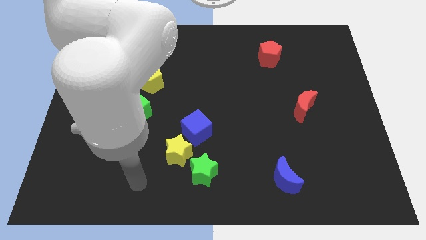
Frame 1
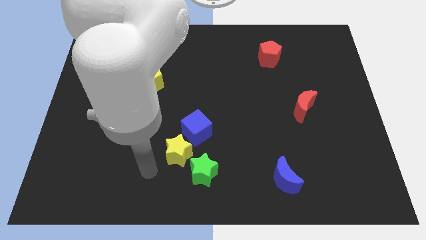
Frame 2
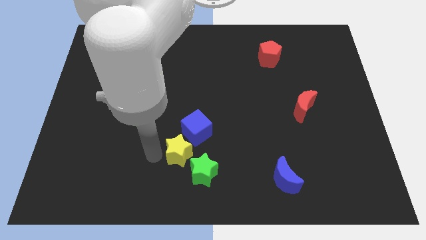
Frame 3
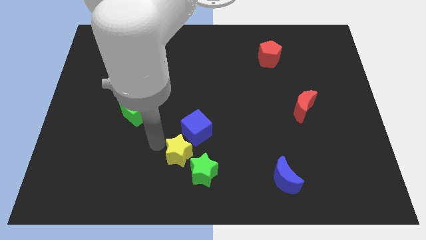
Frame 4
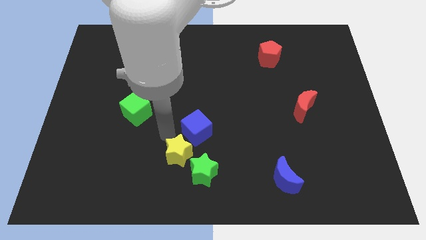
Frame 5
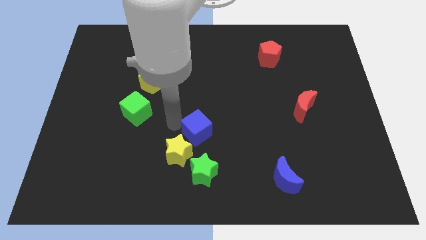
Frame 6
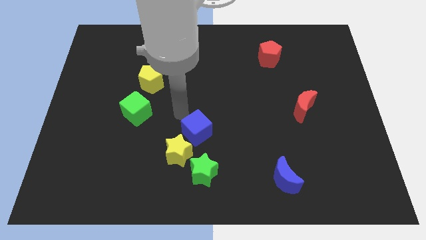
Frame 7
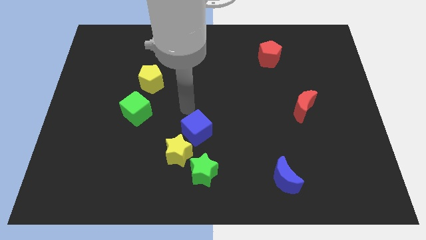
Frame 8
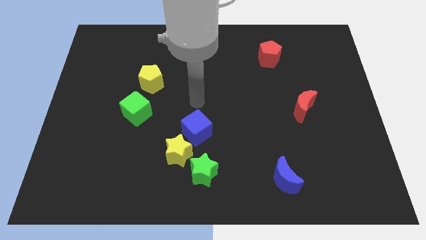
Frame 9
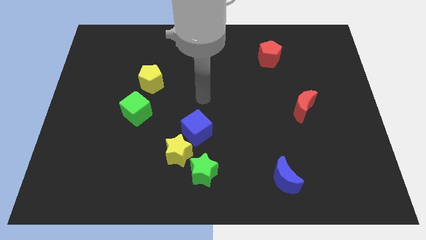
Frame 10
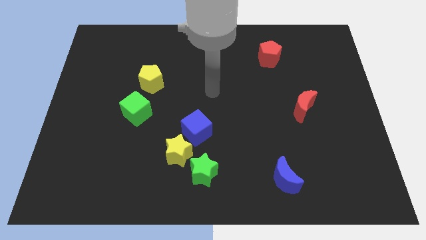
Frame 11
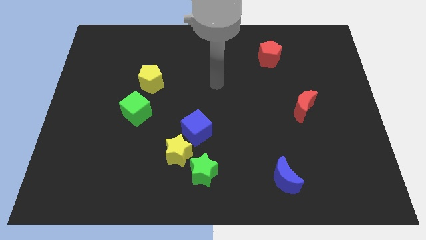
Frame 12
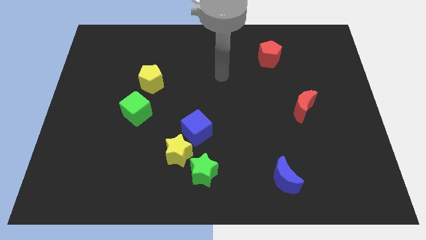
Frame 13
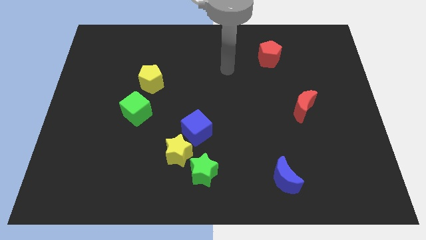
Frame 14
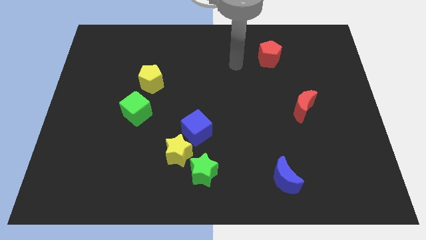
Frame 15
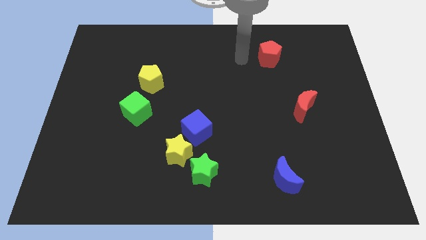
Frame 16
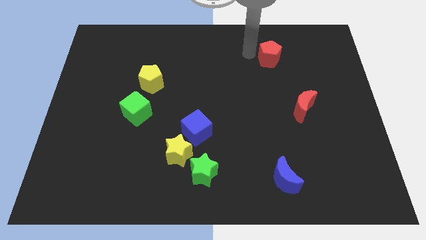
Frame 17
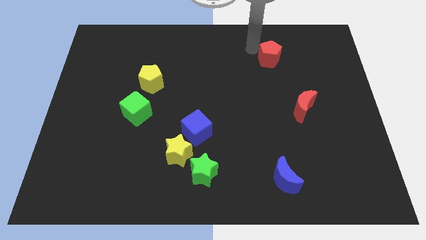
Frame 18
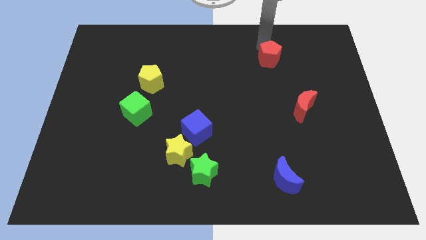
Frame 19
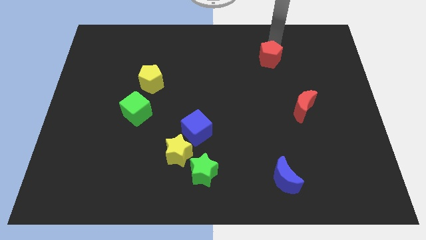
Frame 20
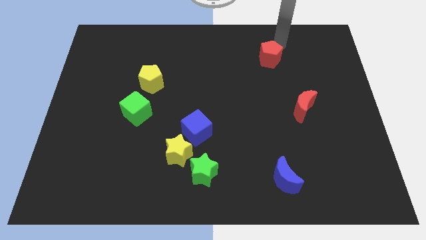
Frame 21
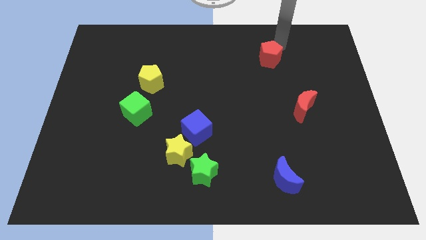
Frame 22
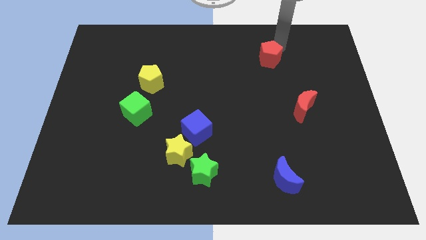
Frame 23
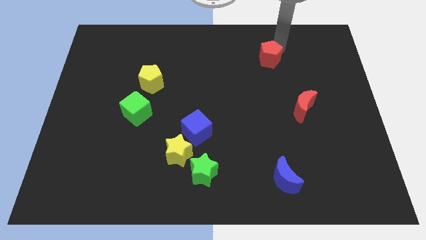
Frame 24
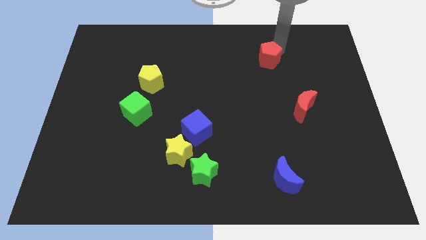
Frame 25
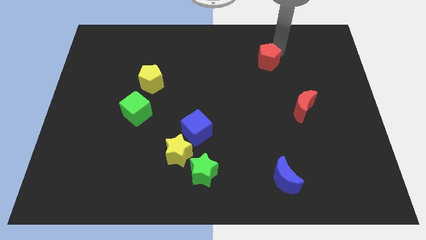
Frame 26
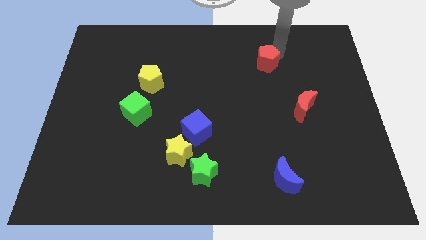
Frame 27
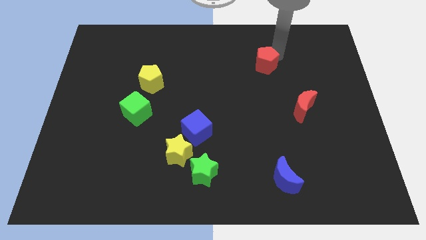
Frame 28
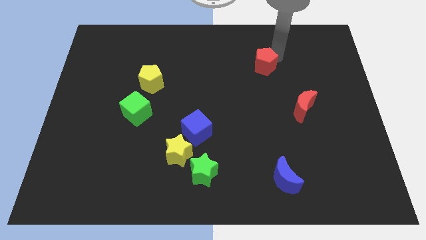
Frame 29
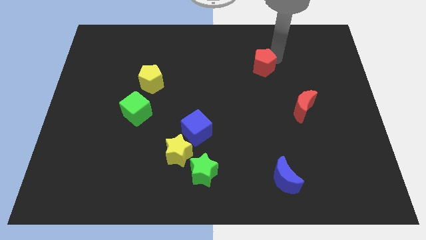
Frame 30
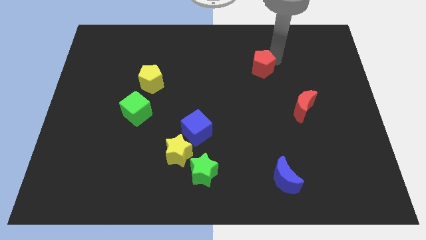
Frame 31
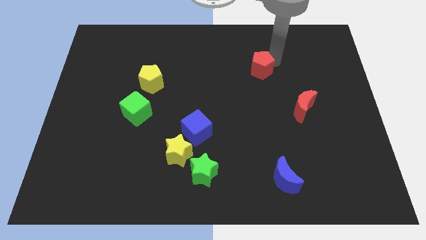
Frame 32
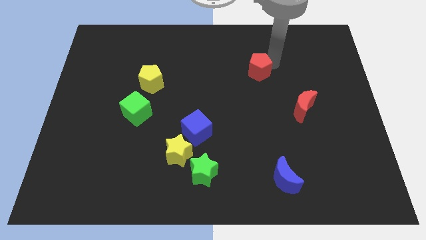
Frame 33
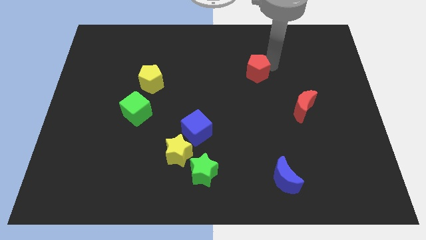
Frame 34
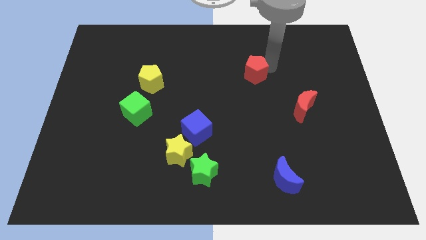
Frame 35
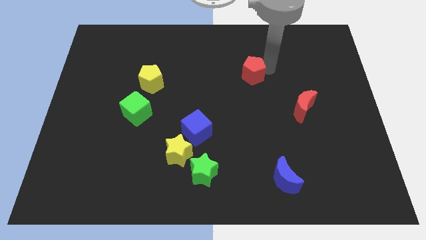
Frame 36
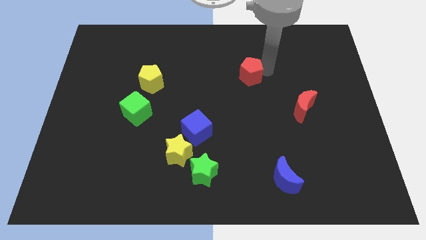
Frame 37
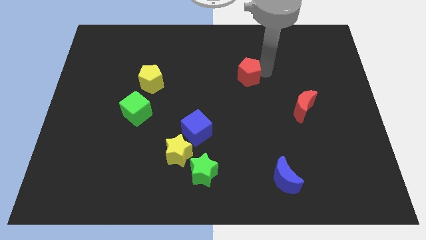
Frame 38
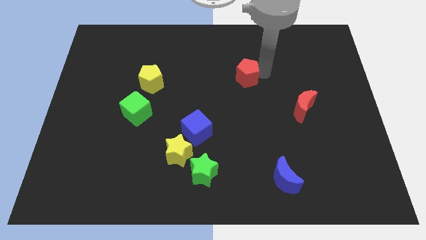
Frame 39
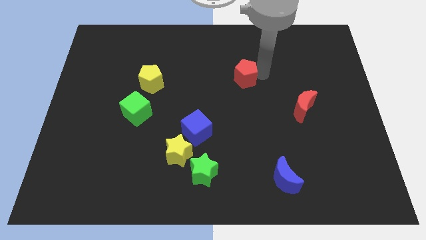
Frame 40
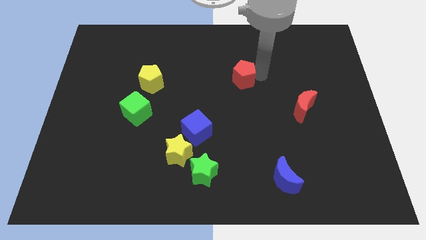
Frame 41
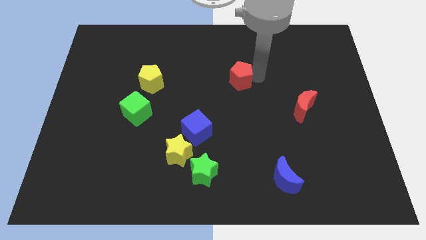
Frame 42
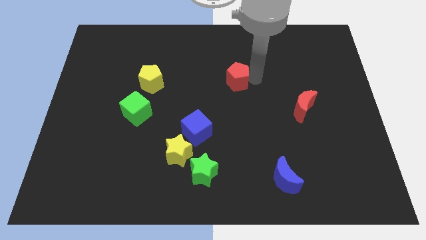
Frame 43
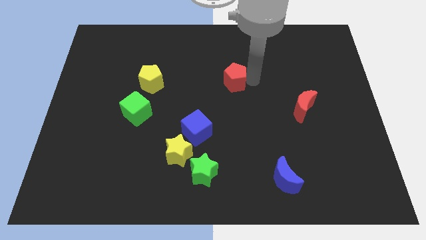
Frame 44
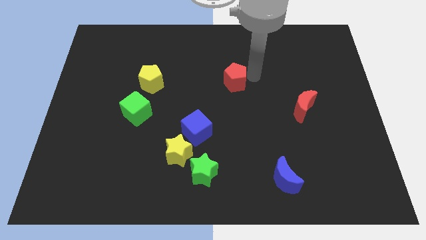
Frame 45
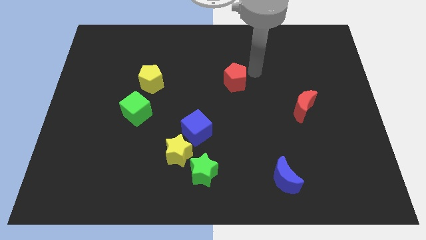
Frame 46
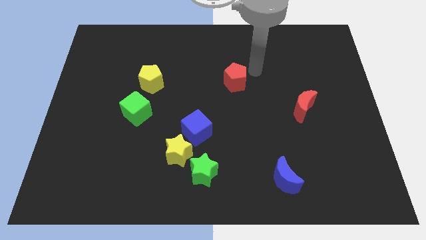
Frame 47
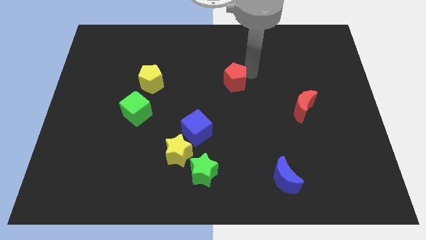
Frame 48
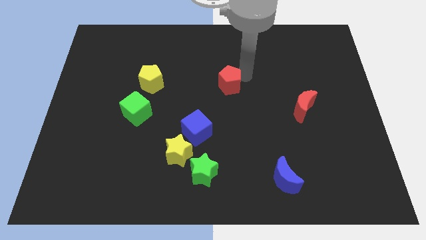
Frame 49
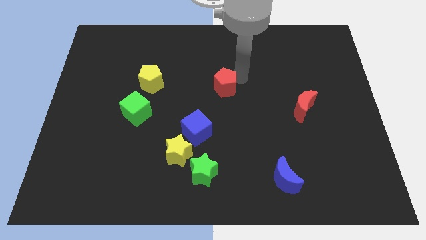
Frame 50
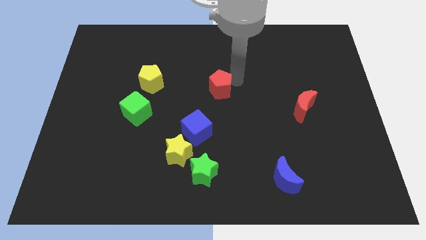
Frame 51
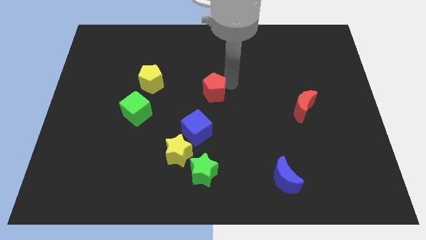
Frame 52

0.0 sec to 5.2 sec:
push the red pentagon above the blue cube
